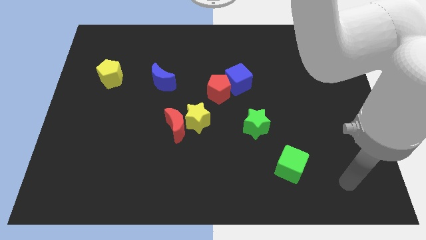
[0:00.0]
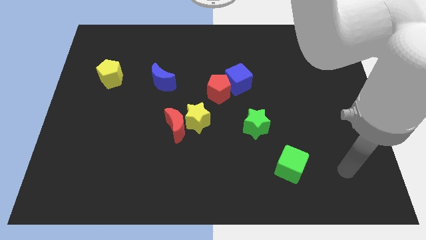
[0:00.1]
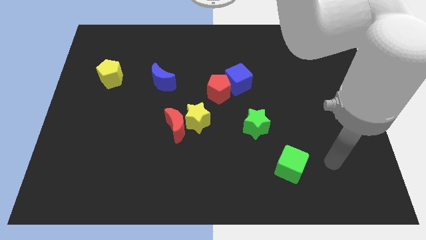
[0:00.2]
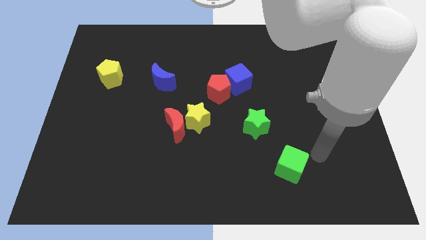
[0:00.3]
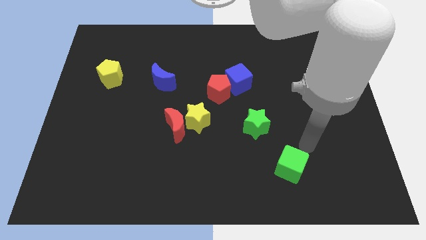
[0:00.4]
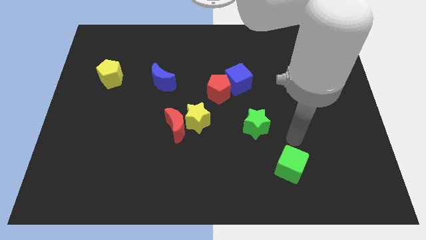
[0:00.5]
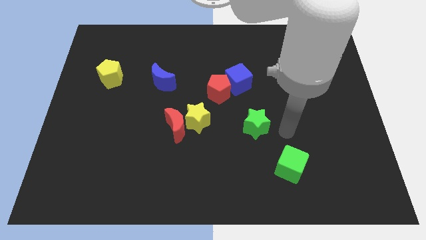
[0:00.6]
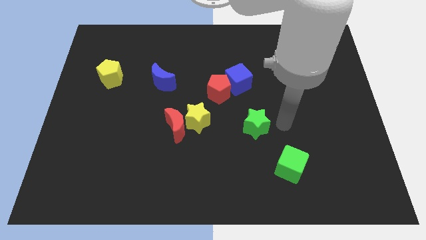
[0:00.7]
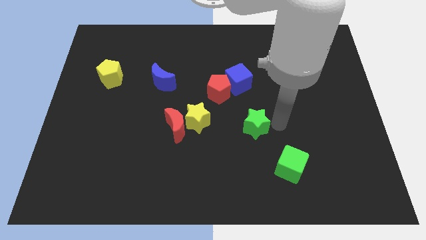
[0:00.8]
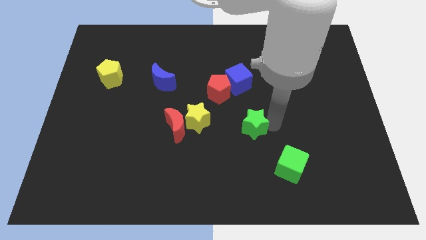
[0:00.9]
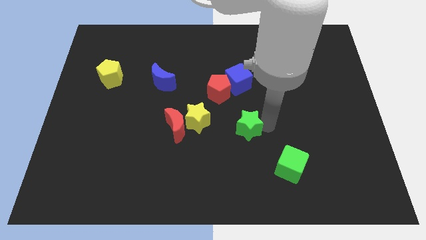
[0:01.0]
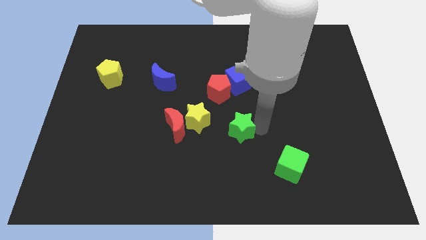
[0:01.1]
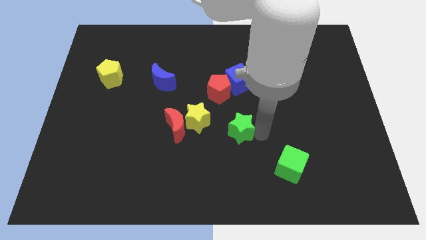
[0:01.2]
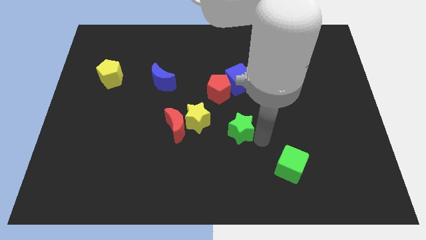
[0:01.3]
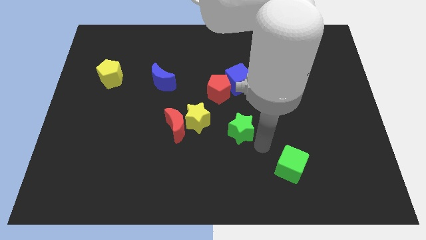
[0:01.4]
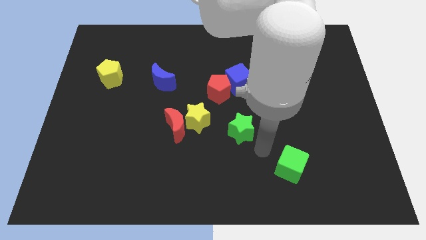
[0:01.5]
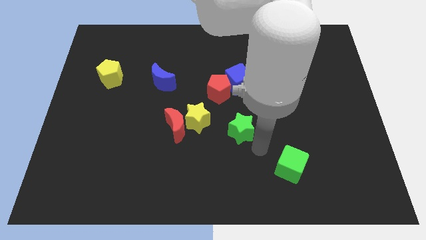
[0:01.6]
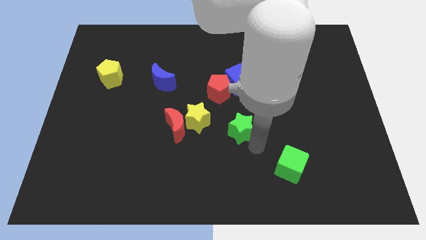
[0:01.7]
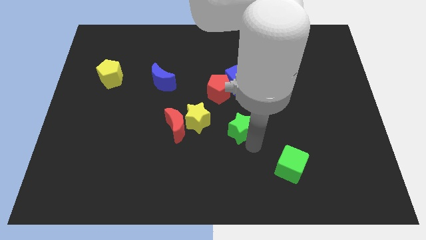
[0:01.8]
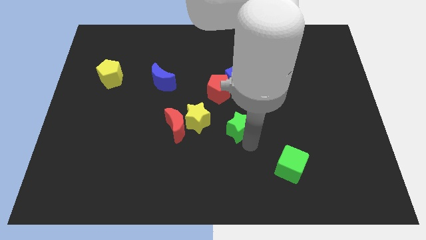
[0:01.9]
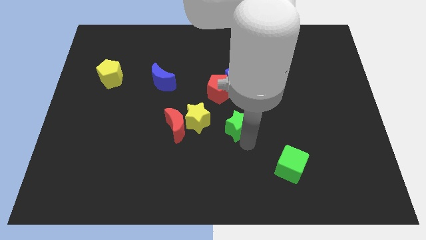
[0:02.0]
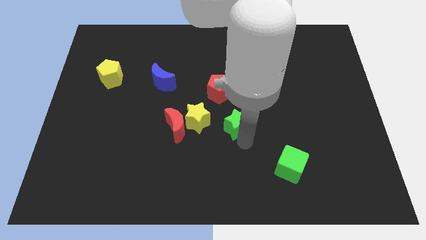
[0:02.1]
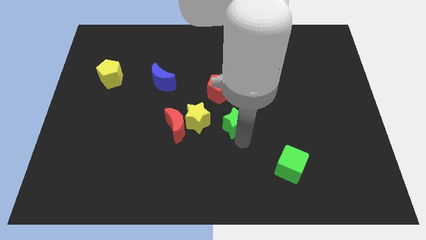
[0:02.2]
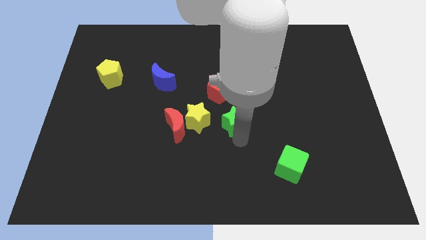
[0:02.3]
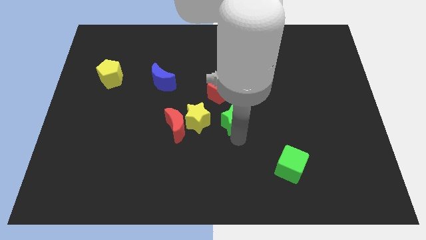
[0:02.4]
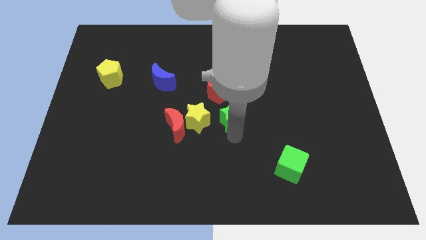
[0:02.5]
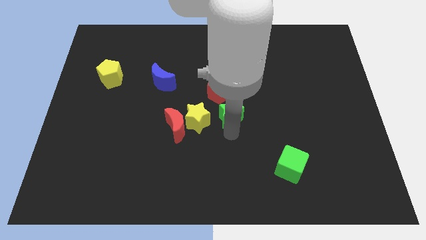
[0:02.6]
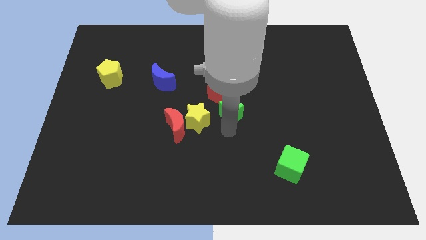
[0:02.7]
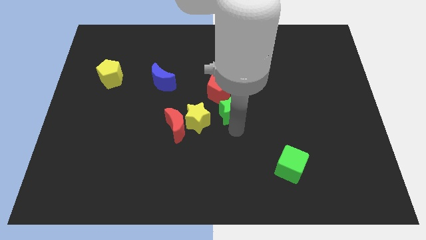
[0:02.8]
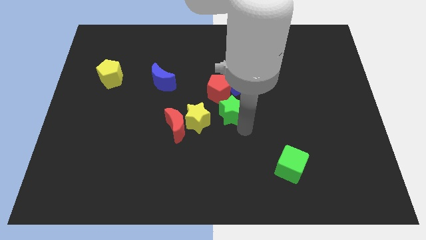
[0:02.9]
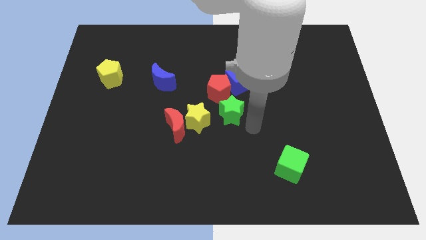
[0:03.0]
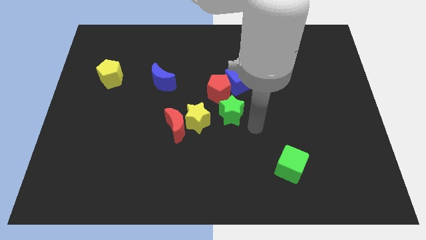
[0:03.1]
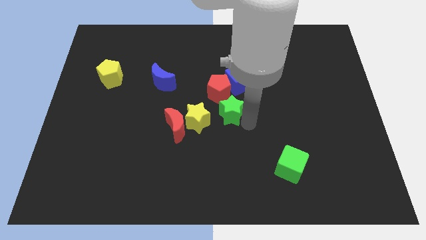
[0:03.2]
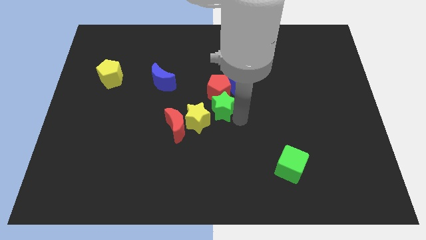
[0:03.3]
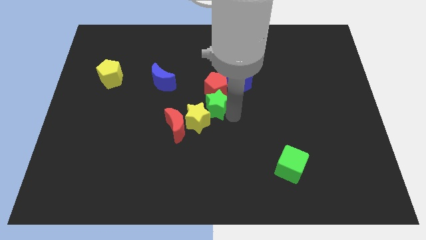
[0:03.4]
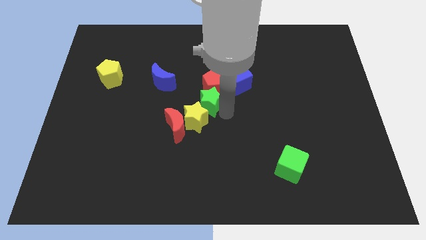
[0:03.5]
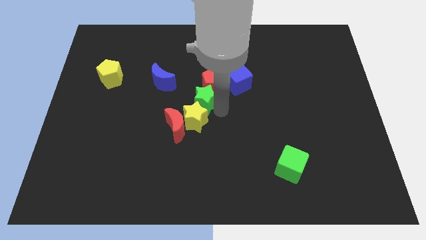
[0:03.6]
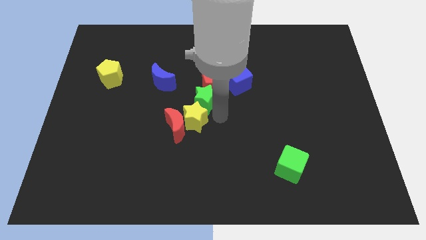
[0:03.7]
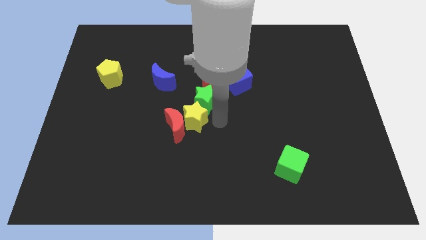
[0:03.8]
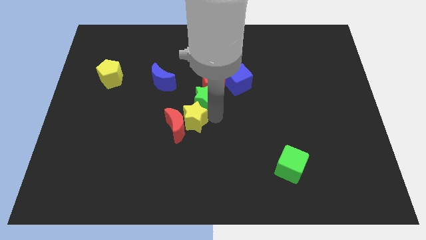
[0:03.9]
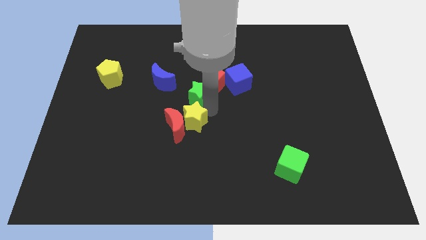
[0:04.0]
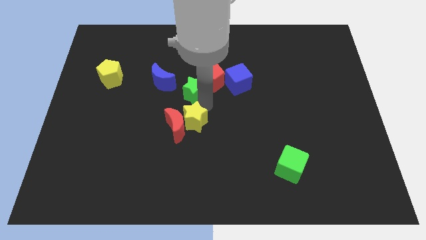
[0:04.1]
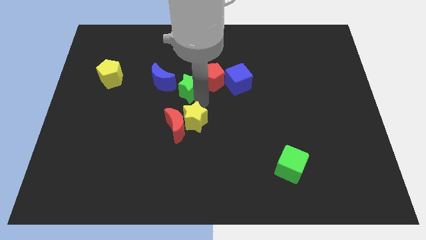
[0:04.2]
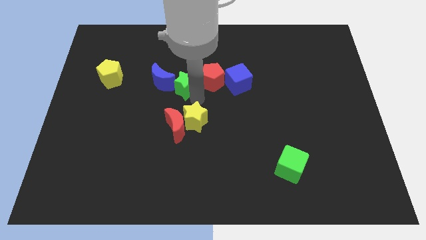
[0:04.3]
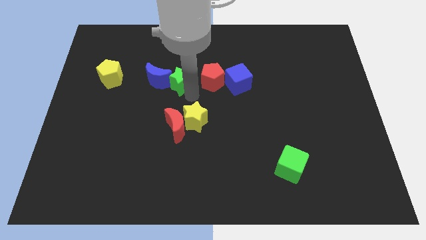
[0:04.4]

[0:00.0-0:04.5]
push the green star diagonally up and to the left

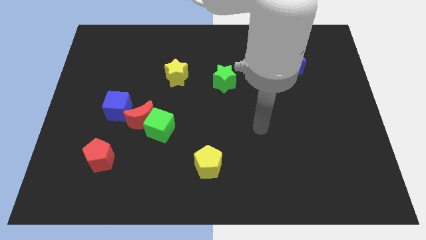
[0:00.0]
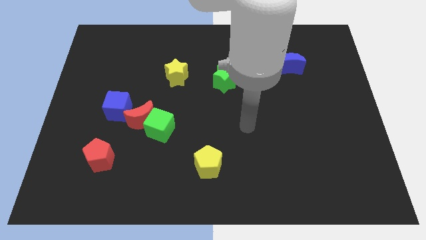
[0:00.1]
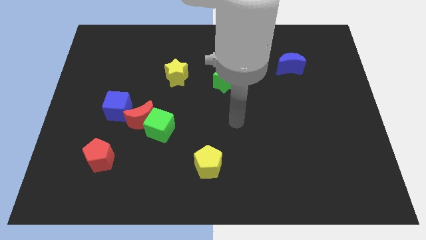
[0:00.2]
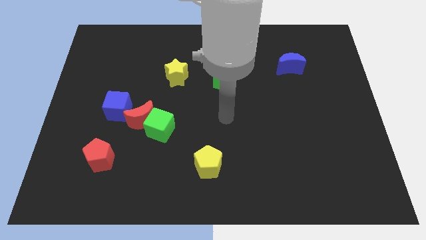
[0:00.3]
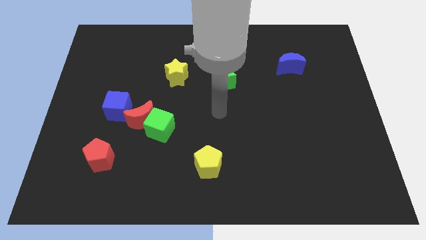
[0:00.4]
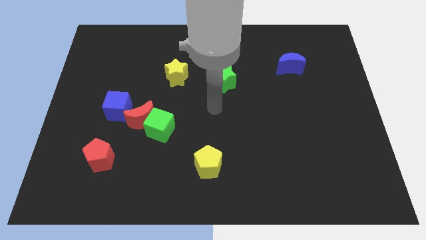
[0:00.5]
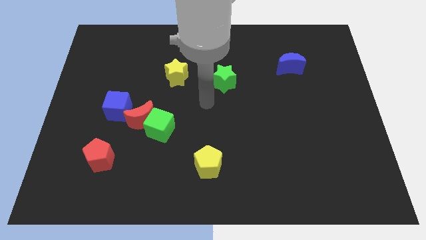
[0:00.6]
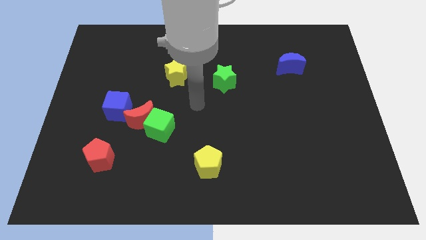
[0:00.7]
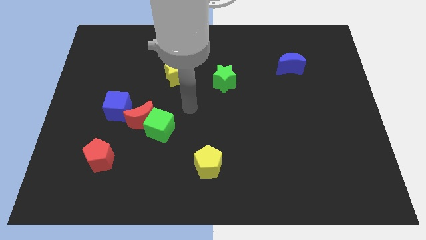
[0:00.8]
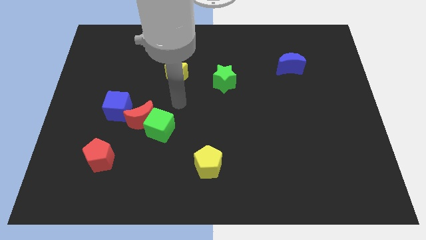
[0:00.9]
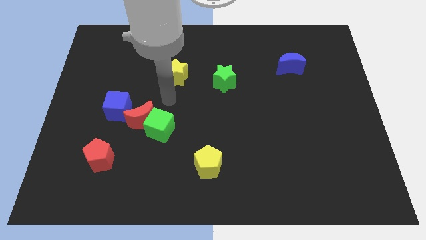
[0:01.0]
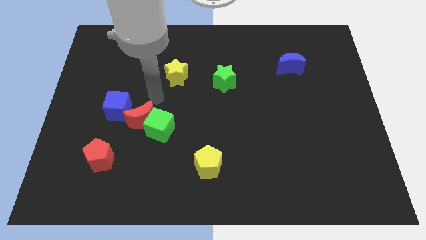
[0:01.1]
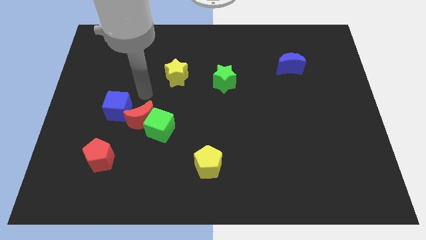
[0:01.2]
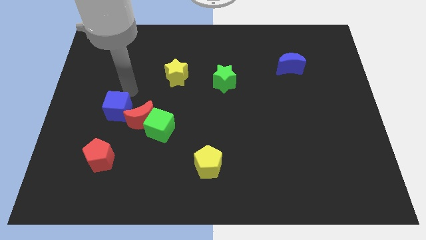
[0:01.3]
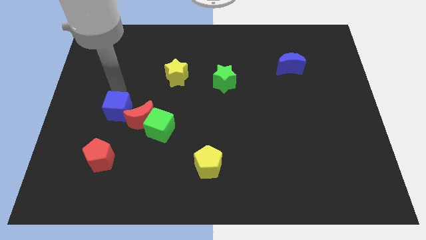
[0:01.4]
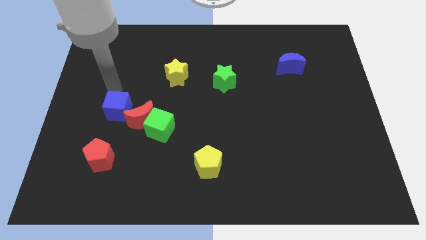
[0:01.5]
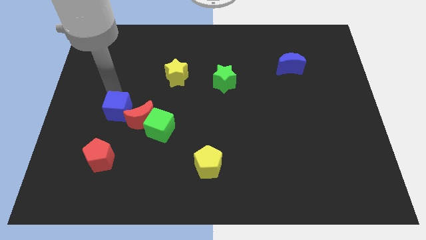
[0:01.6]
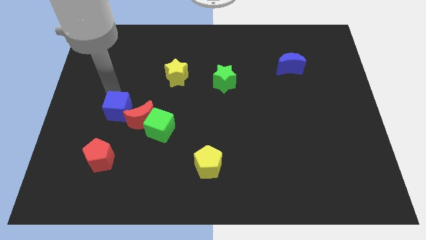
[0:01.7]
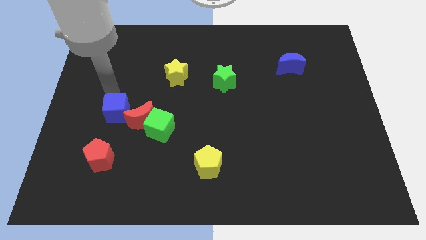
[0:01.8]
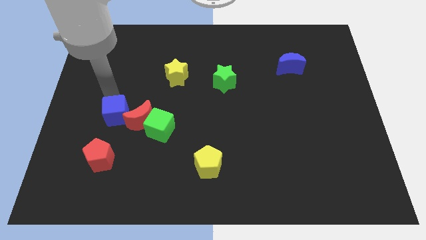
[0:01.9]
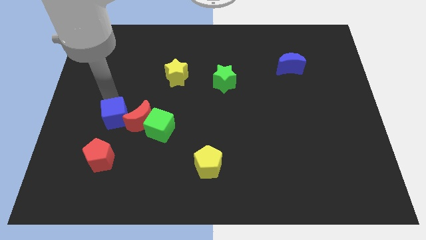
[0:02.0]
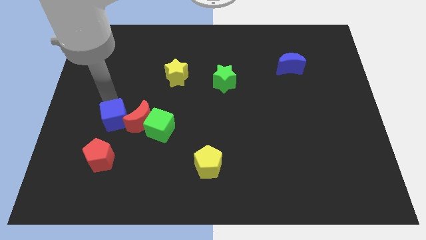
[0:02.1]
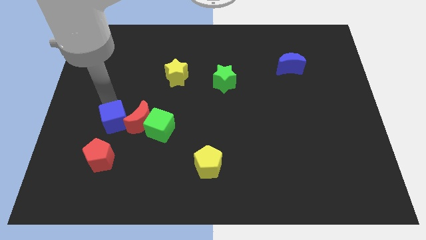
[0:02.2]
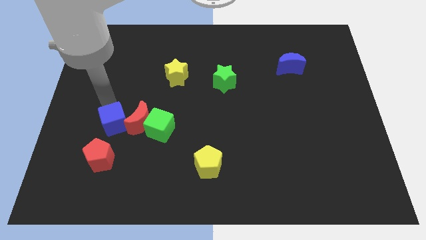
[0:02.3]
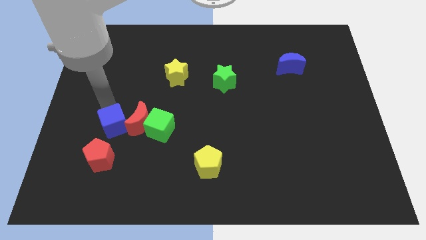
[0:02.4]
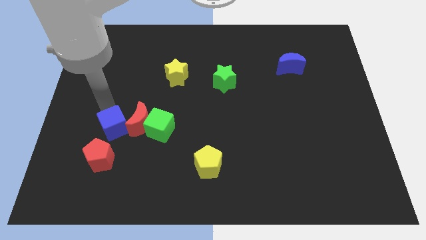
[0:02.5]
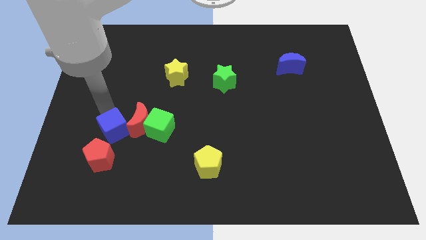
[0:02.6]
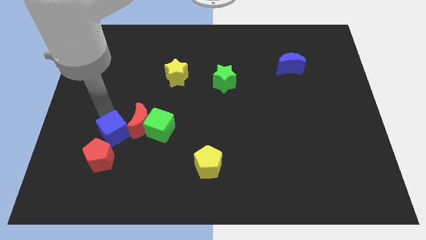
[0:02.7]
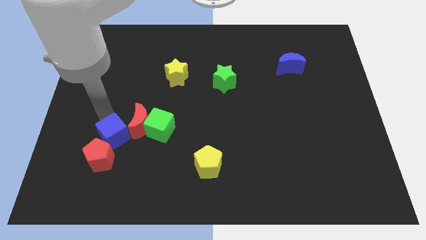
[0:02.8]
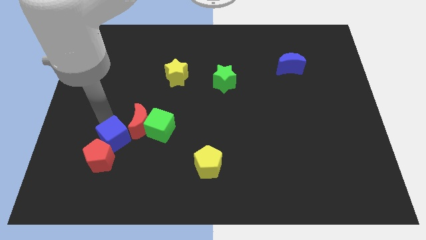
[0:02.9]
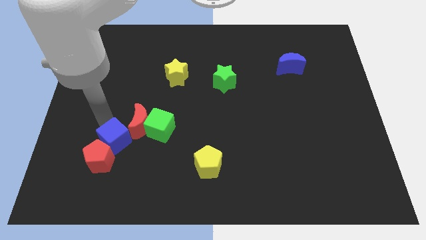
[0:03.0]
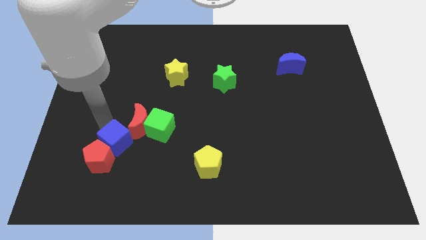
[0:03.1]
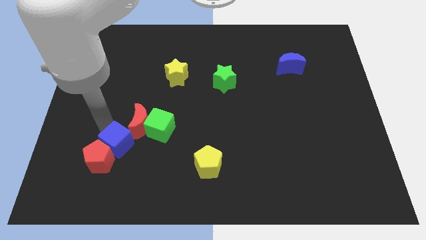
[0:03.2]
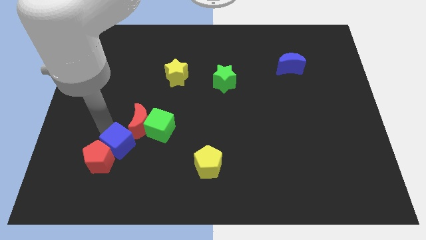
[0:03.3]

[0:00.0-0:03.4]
slightly push the blue cube down and right

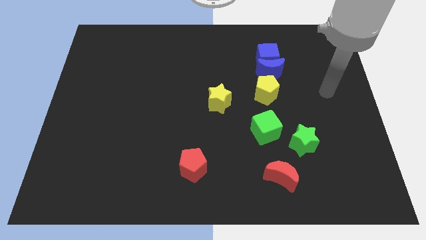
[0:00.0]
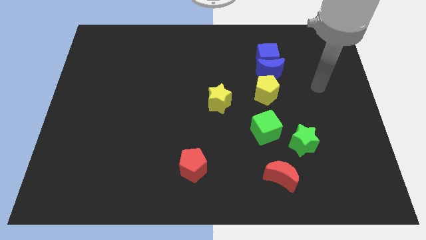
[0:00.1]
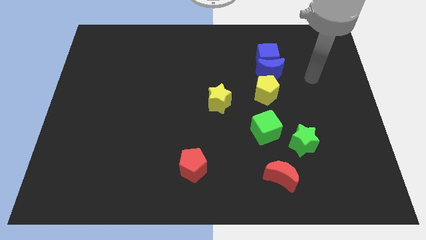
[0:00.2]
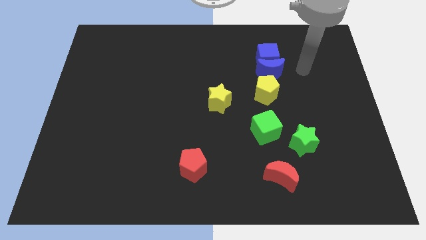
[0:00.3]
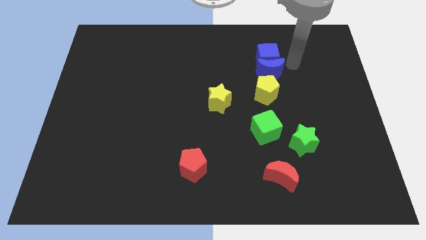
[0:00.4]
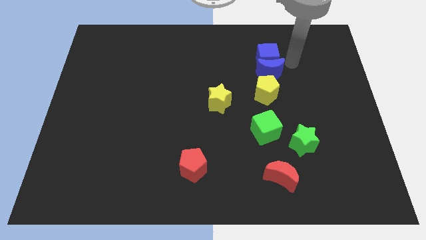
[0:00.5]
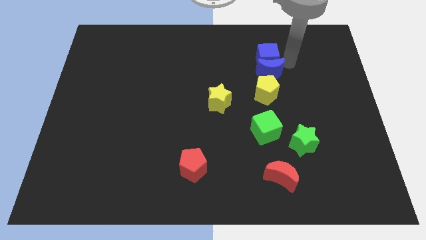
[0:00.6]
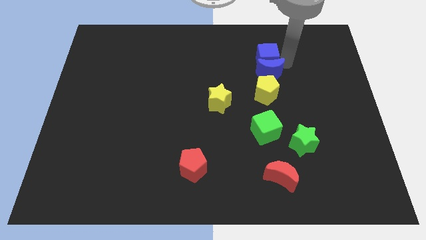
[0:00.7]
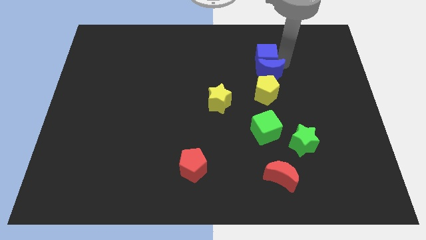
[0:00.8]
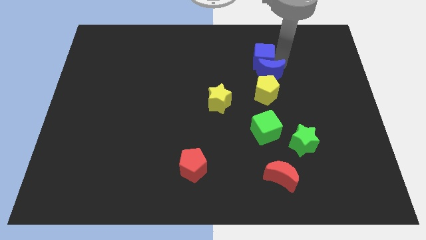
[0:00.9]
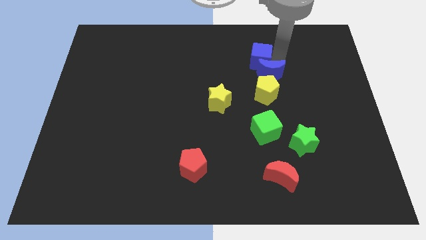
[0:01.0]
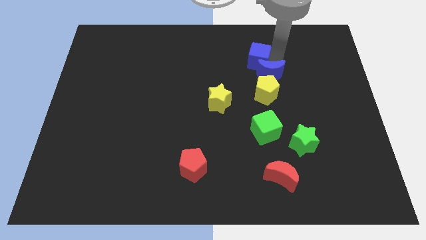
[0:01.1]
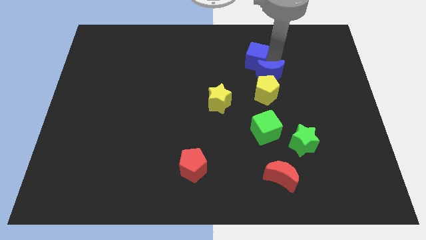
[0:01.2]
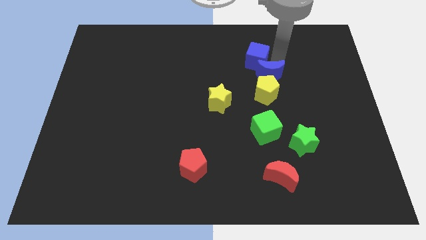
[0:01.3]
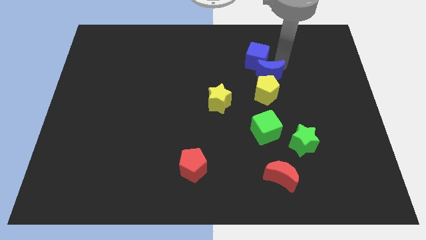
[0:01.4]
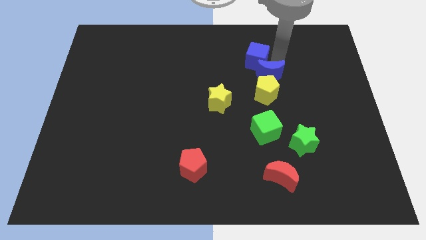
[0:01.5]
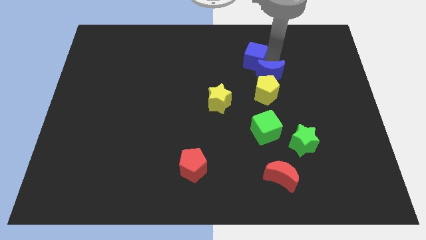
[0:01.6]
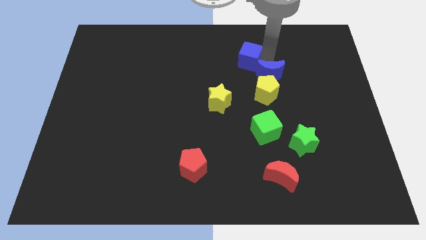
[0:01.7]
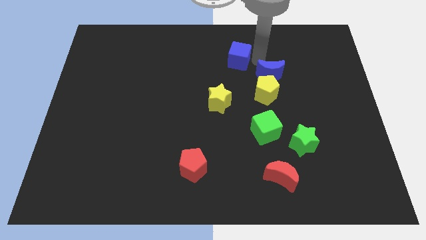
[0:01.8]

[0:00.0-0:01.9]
push the blue cube a little left
